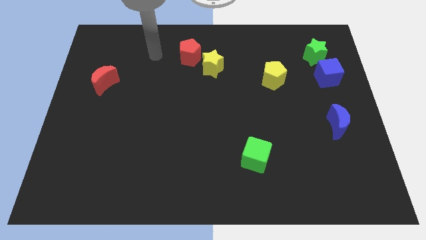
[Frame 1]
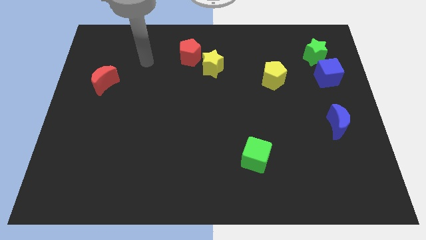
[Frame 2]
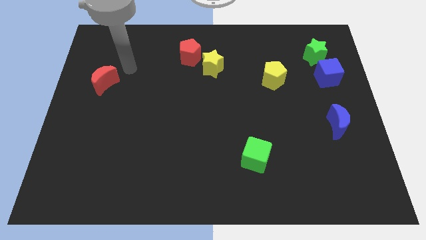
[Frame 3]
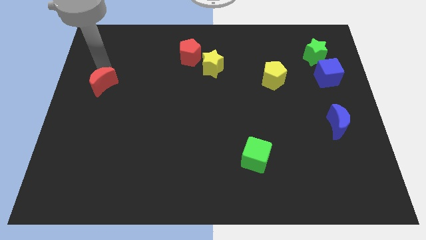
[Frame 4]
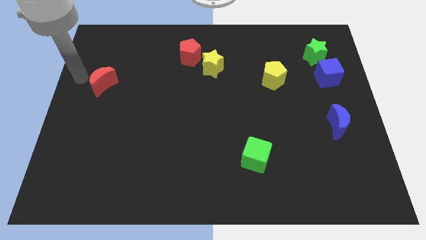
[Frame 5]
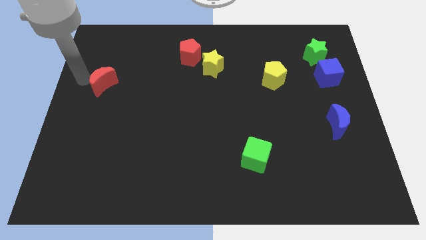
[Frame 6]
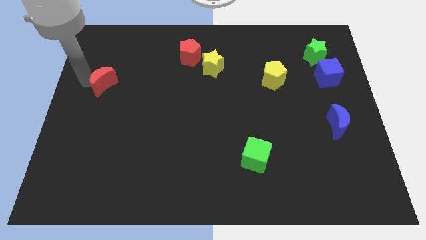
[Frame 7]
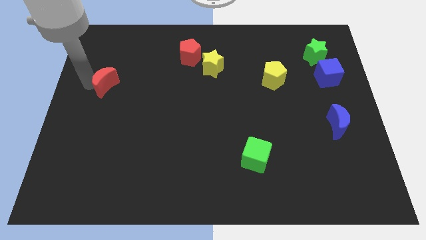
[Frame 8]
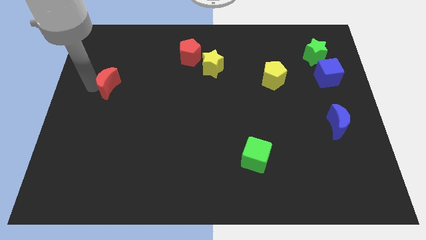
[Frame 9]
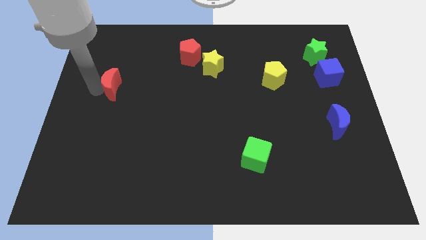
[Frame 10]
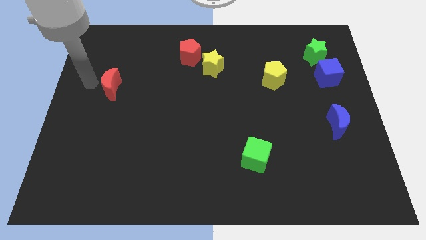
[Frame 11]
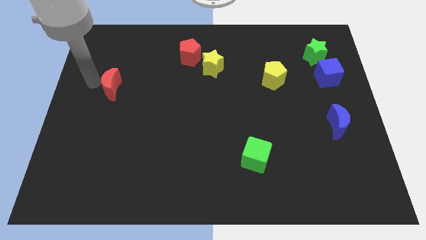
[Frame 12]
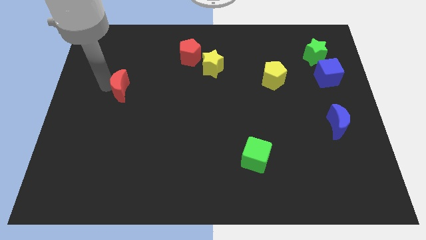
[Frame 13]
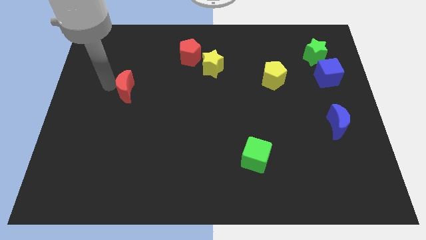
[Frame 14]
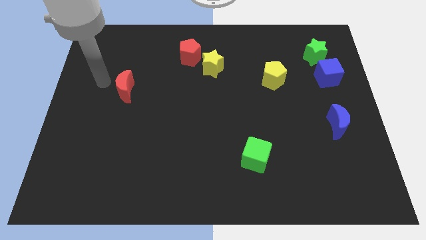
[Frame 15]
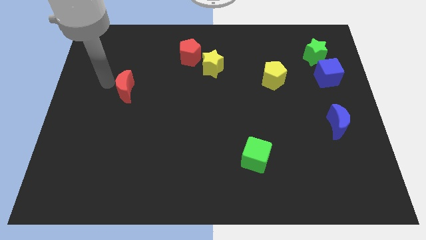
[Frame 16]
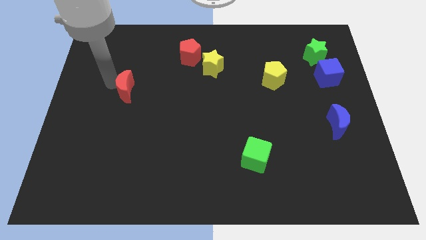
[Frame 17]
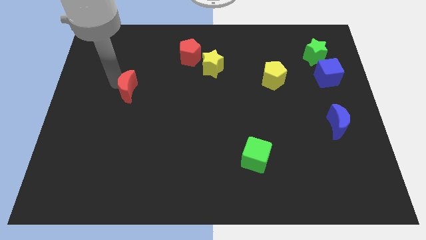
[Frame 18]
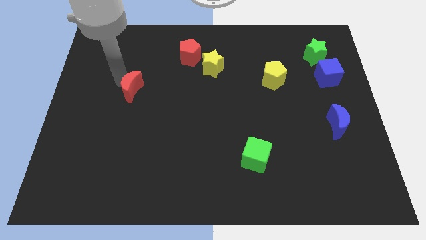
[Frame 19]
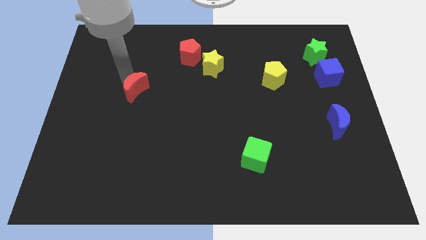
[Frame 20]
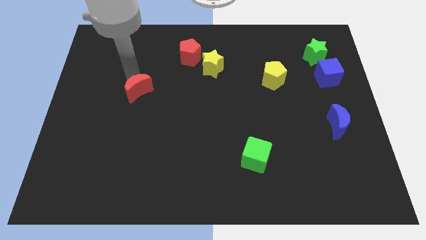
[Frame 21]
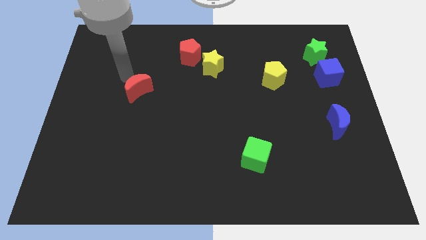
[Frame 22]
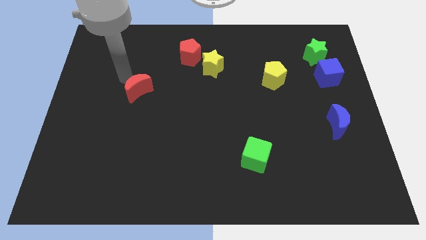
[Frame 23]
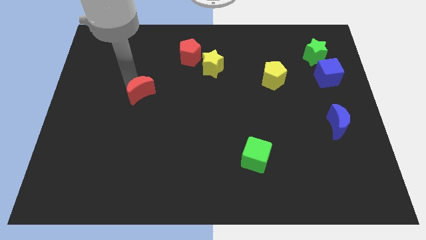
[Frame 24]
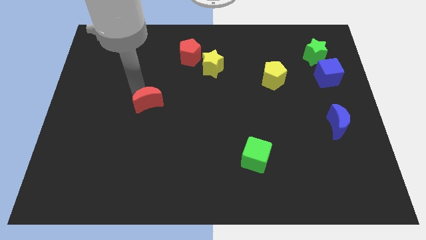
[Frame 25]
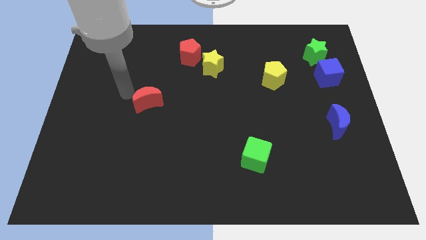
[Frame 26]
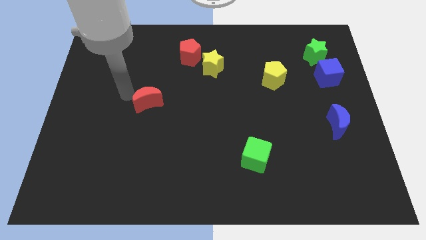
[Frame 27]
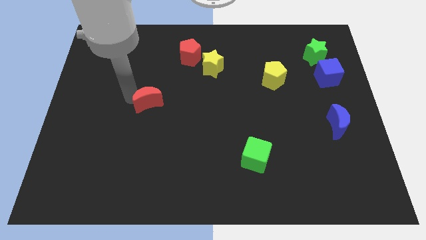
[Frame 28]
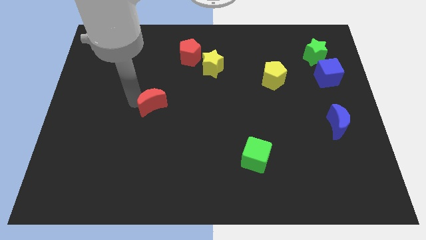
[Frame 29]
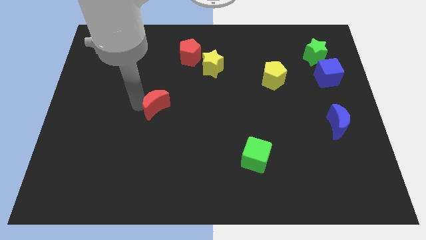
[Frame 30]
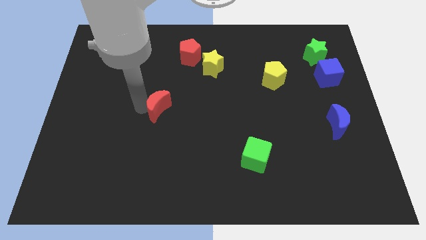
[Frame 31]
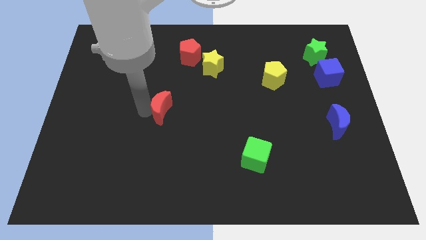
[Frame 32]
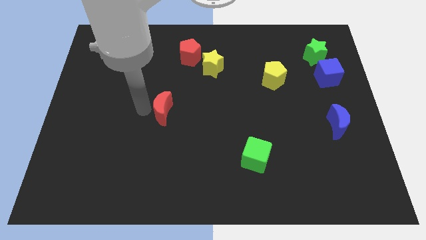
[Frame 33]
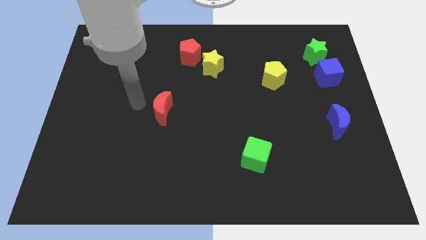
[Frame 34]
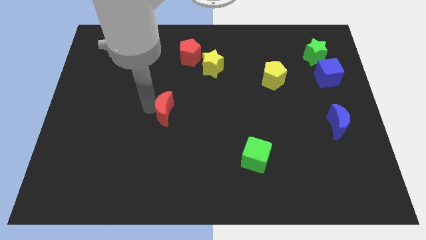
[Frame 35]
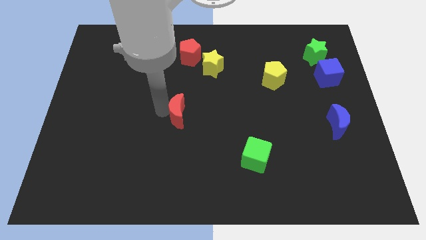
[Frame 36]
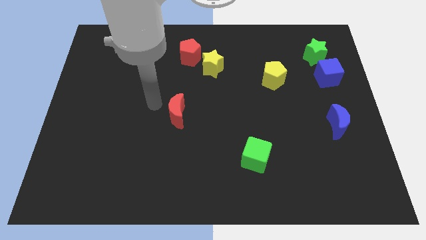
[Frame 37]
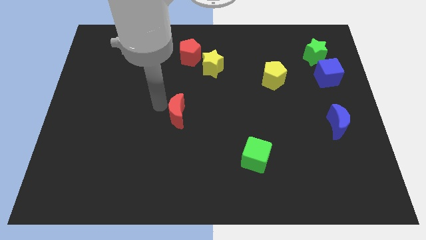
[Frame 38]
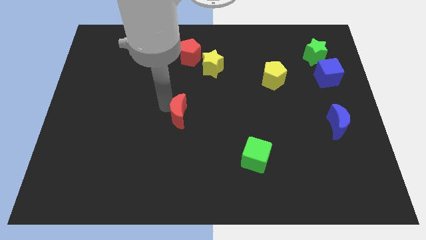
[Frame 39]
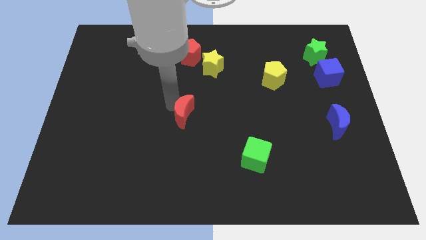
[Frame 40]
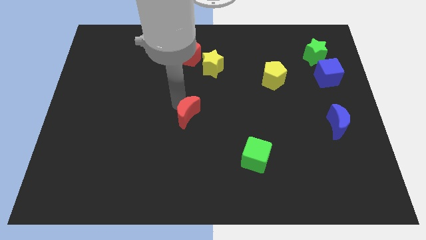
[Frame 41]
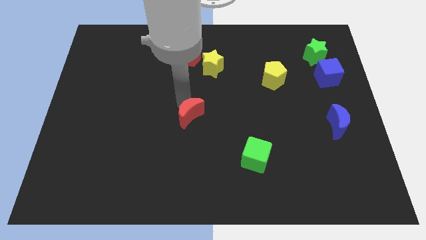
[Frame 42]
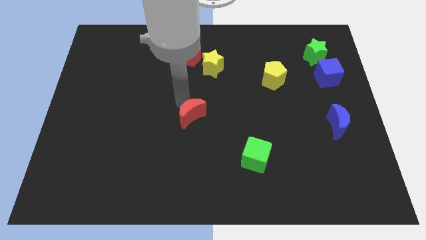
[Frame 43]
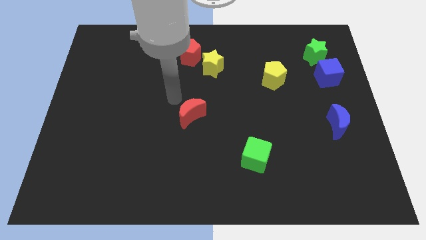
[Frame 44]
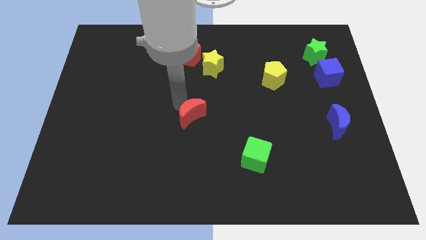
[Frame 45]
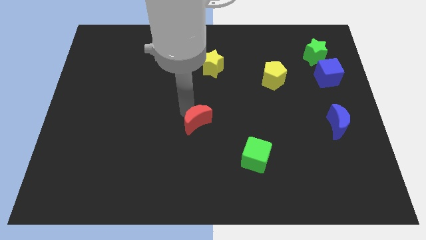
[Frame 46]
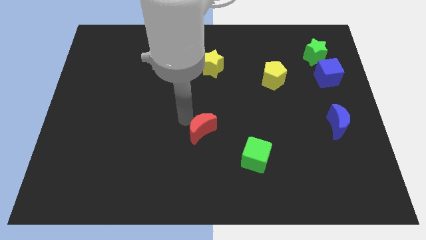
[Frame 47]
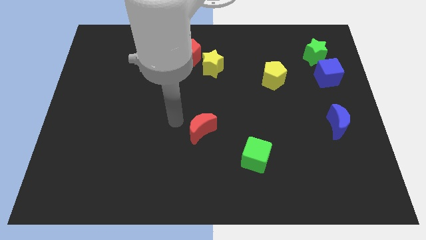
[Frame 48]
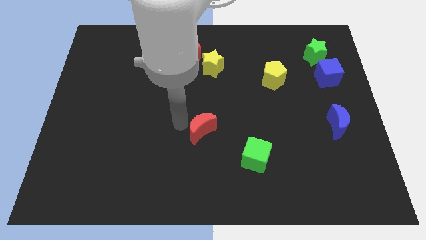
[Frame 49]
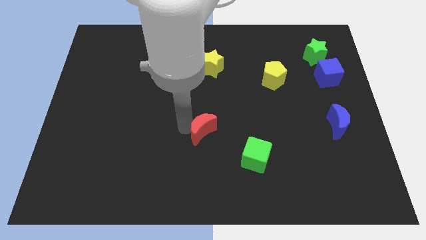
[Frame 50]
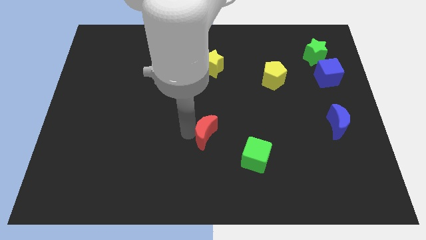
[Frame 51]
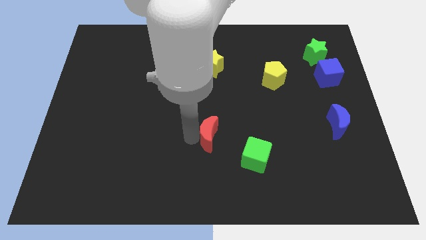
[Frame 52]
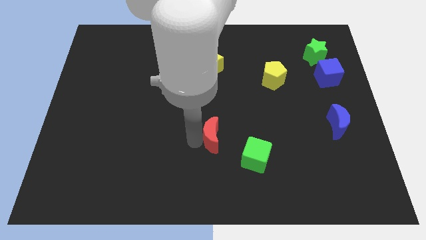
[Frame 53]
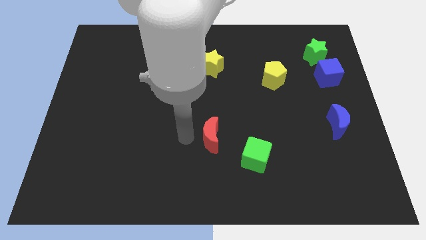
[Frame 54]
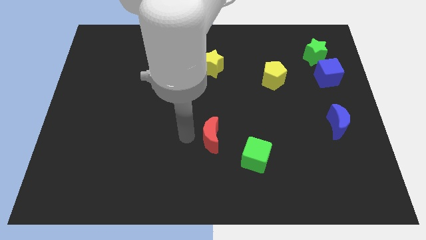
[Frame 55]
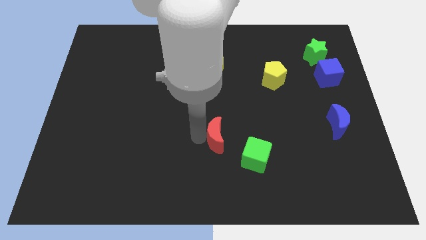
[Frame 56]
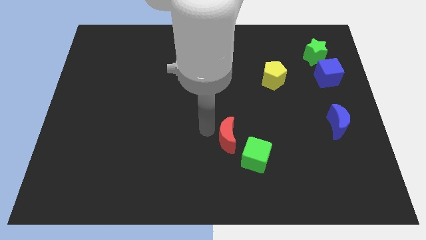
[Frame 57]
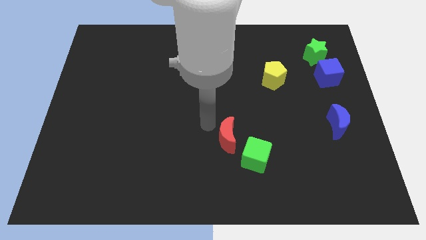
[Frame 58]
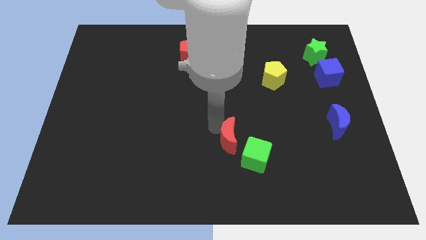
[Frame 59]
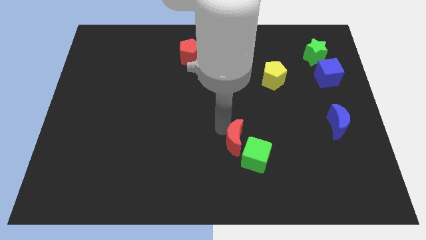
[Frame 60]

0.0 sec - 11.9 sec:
slide the red moon to the green cube

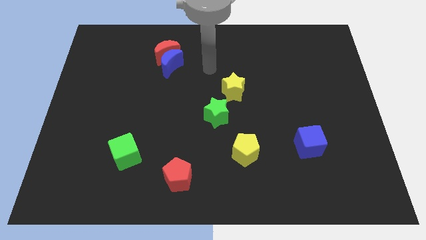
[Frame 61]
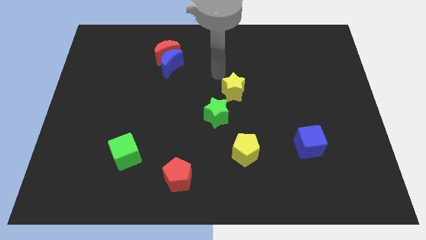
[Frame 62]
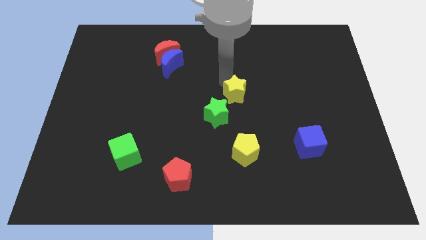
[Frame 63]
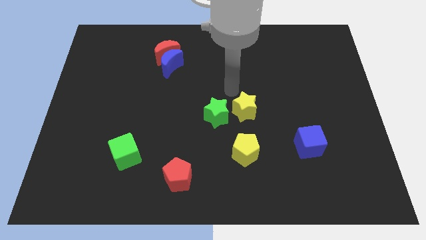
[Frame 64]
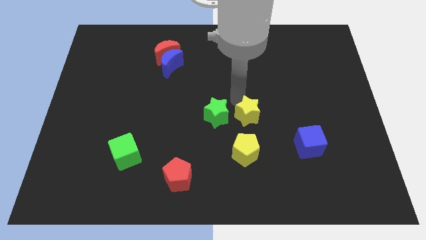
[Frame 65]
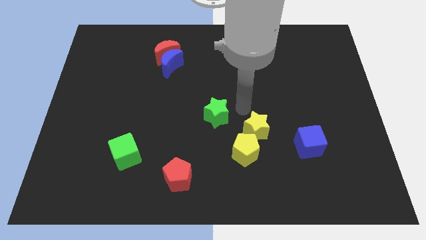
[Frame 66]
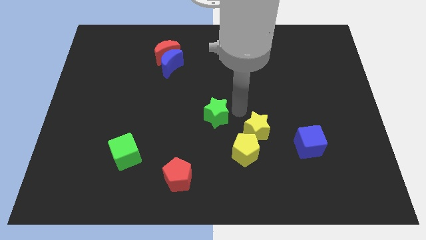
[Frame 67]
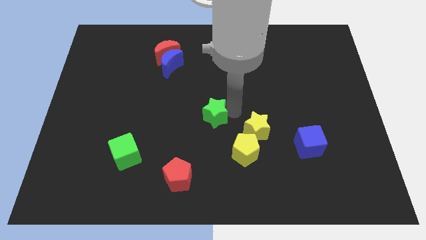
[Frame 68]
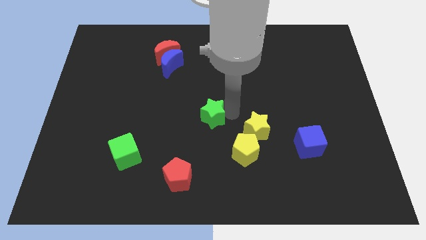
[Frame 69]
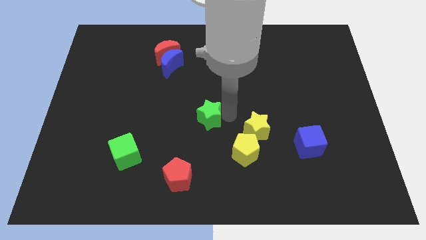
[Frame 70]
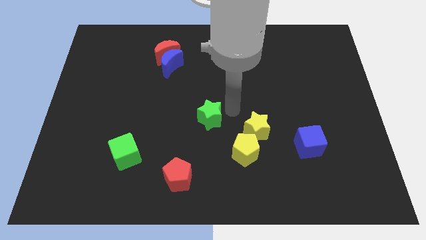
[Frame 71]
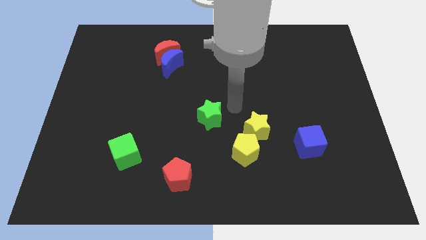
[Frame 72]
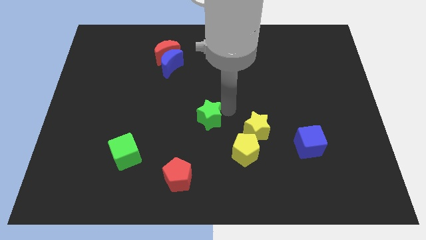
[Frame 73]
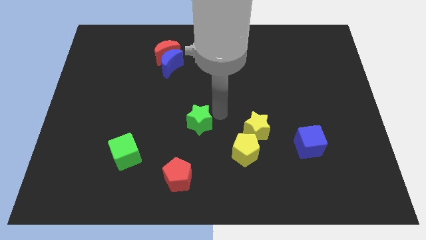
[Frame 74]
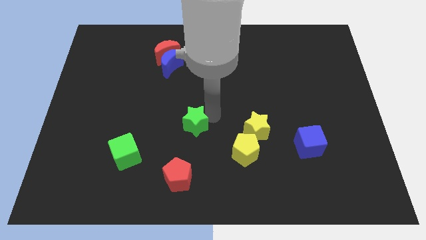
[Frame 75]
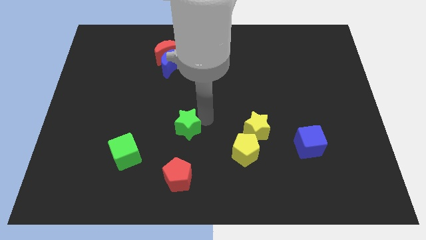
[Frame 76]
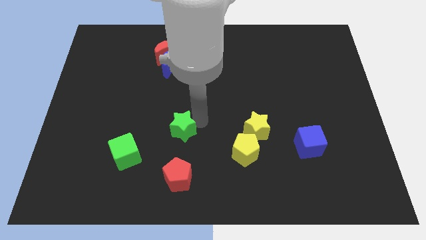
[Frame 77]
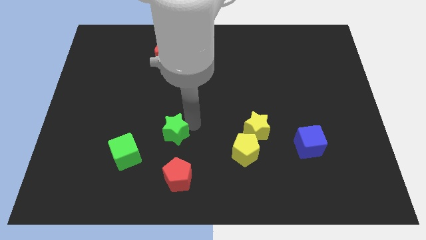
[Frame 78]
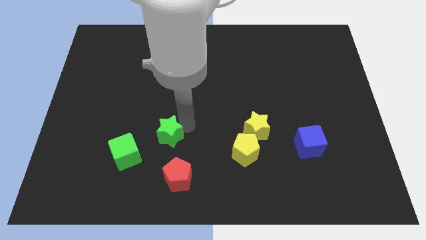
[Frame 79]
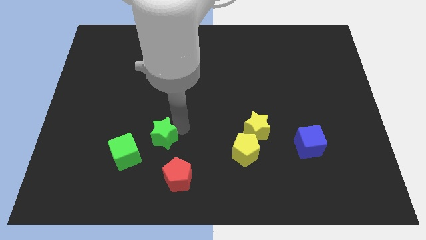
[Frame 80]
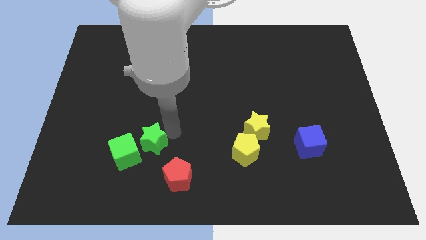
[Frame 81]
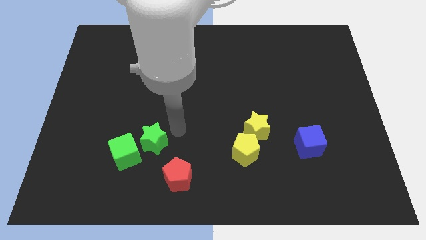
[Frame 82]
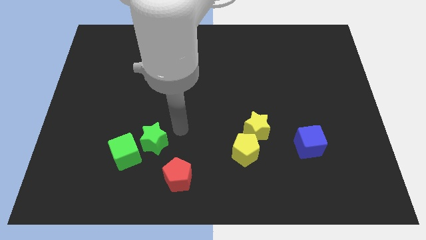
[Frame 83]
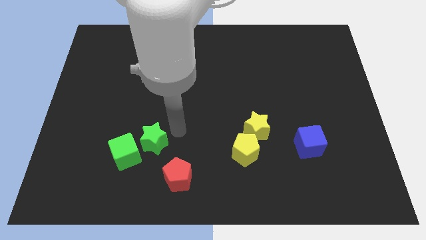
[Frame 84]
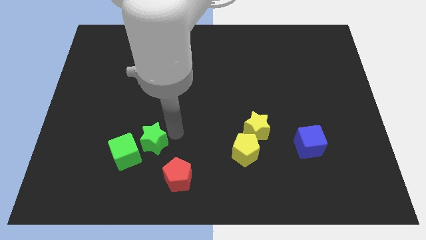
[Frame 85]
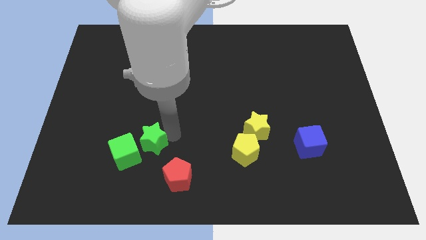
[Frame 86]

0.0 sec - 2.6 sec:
move the green star close to the green cube
